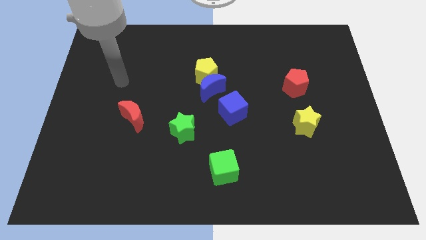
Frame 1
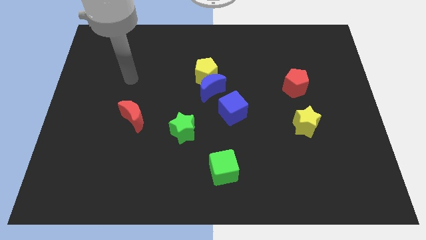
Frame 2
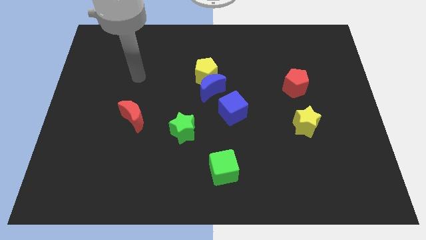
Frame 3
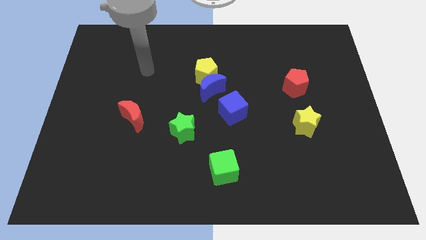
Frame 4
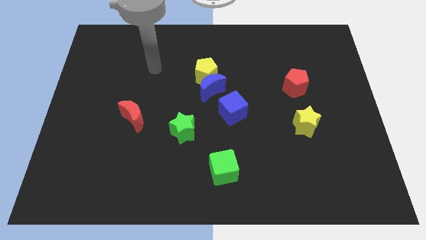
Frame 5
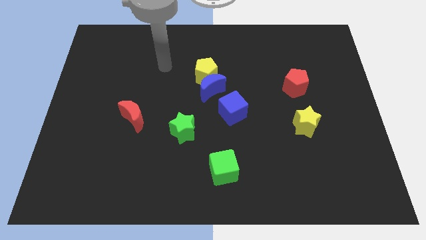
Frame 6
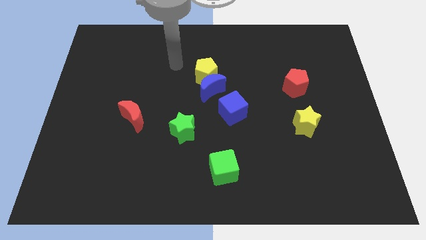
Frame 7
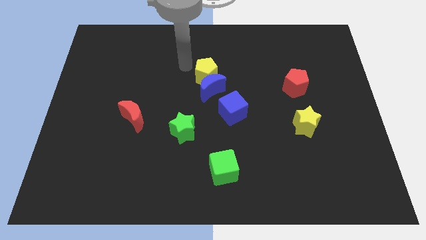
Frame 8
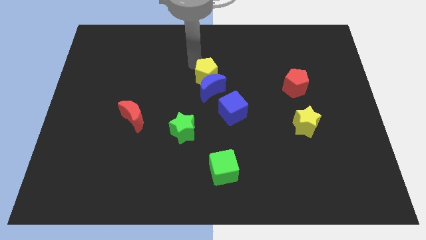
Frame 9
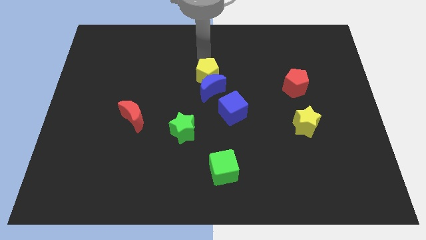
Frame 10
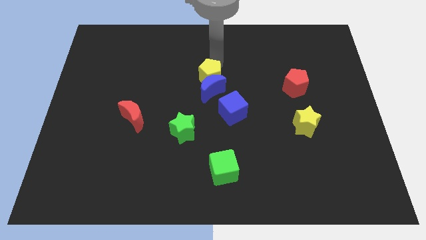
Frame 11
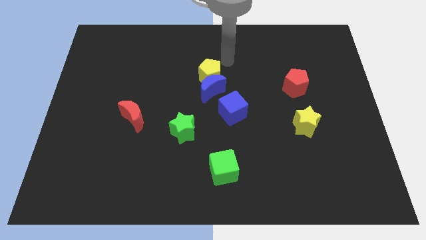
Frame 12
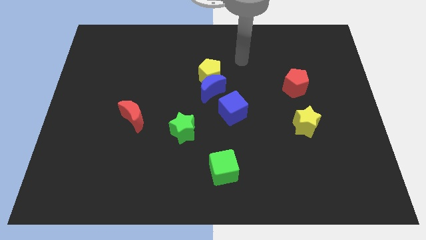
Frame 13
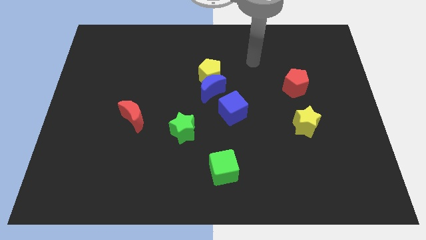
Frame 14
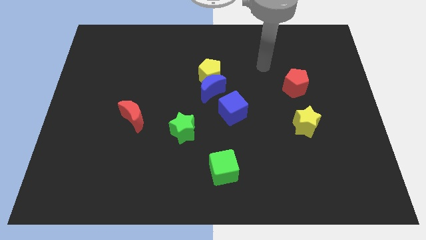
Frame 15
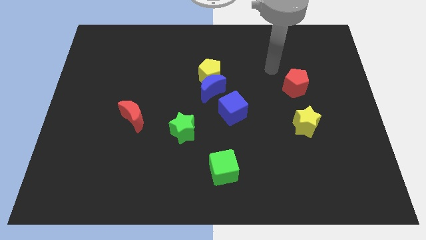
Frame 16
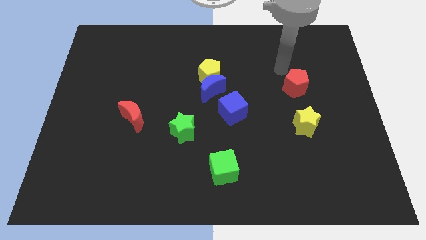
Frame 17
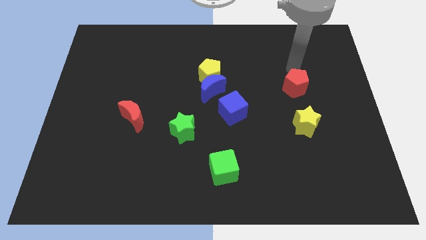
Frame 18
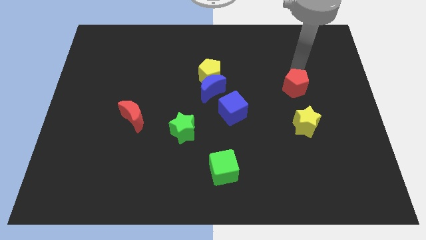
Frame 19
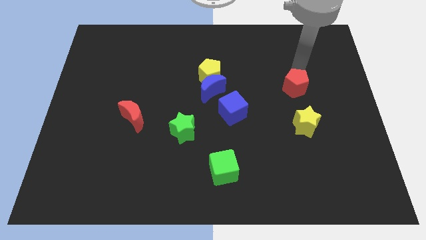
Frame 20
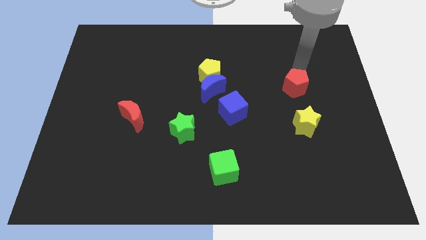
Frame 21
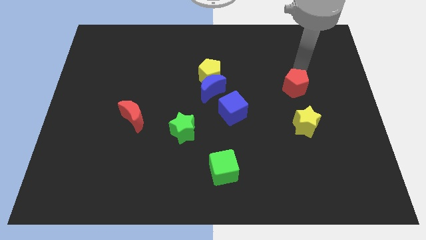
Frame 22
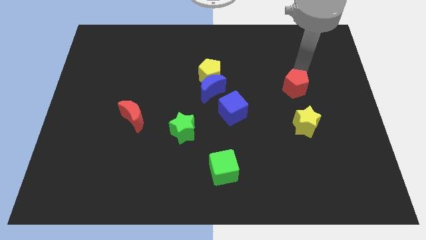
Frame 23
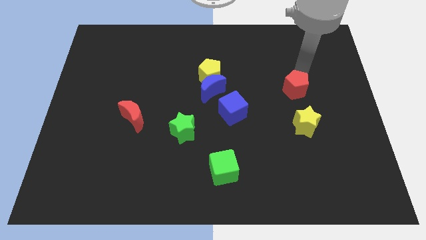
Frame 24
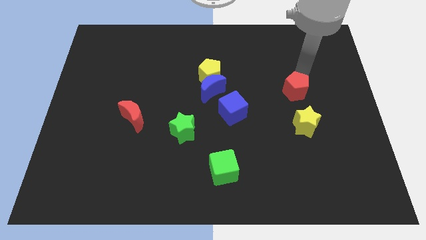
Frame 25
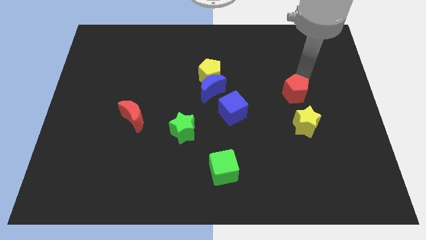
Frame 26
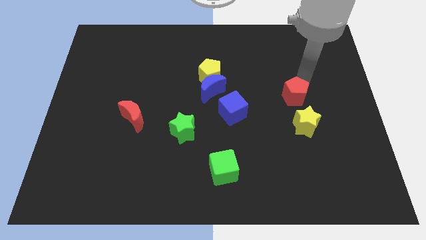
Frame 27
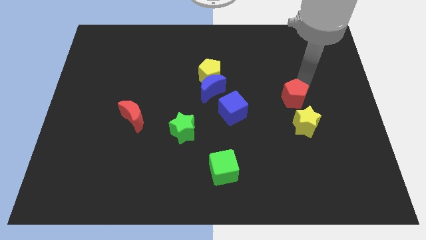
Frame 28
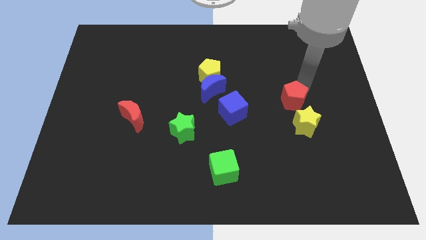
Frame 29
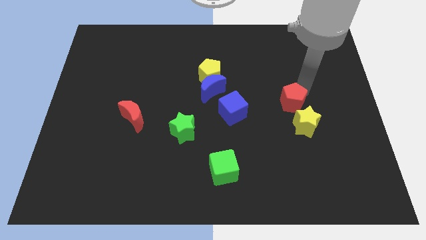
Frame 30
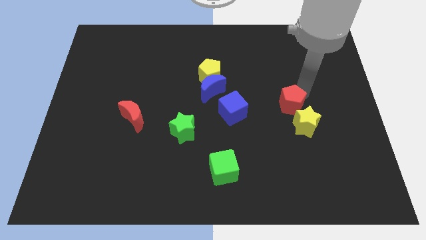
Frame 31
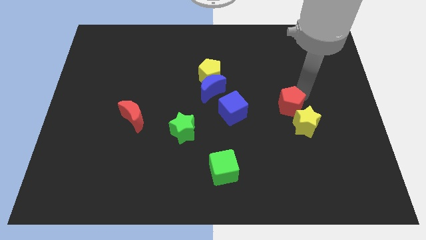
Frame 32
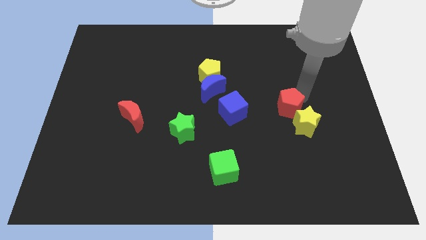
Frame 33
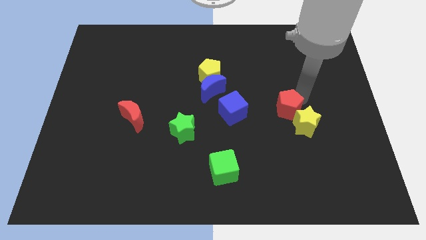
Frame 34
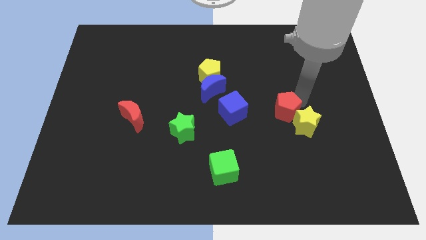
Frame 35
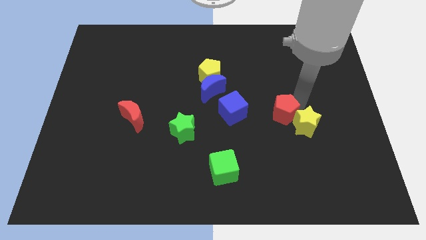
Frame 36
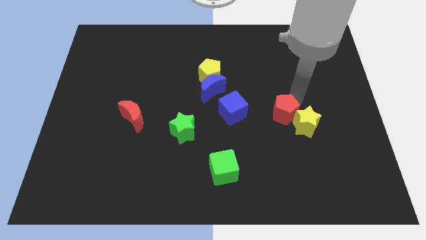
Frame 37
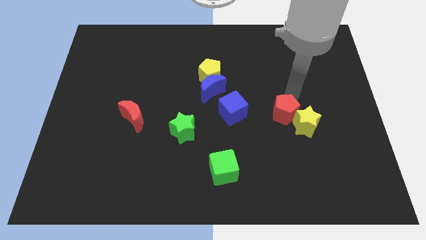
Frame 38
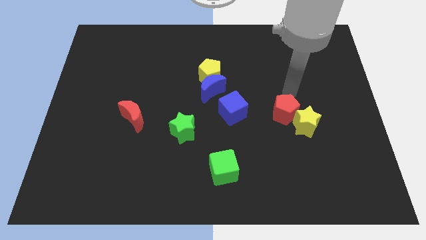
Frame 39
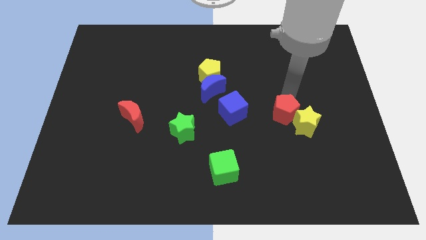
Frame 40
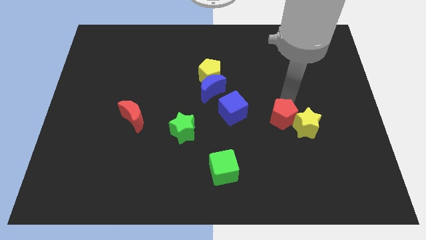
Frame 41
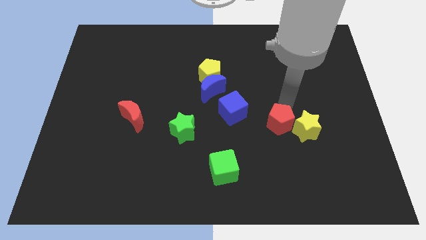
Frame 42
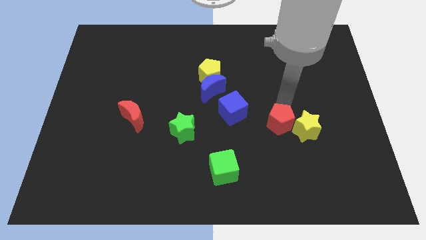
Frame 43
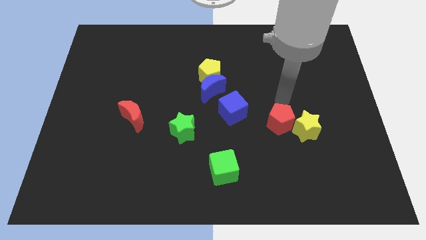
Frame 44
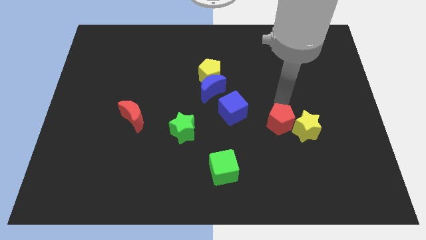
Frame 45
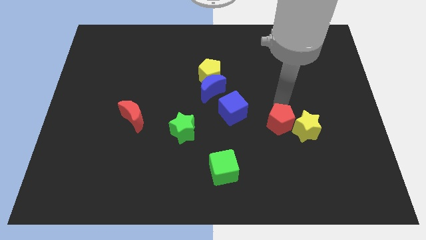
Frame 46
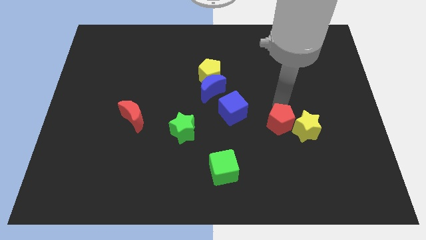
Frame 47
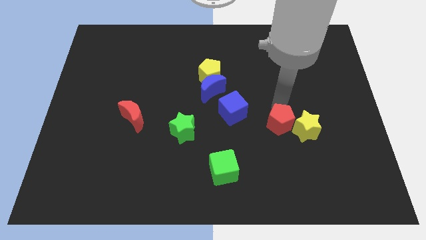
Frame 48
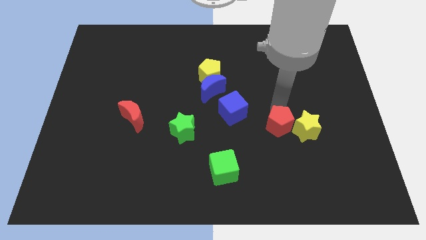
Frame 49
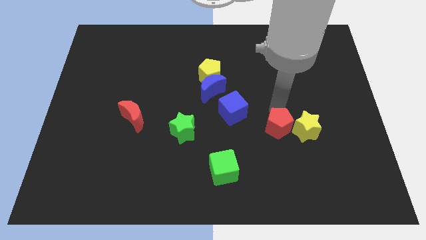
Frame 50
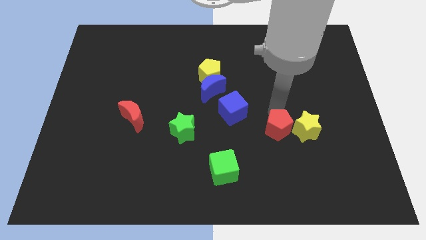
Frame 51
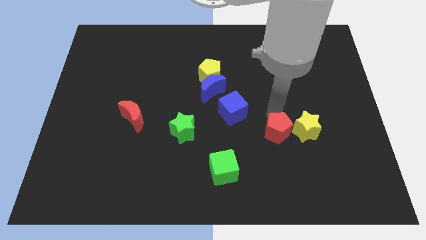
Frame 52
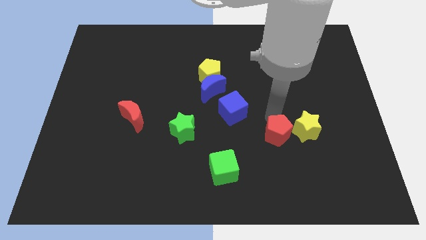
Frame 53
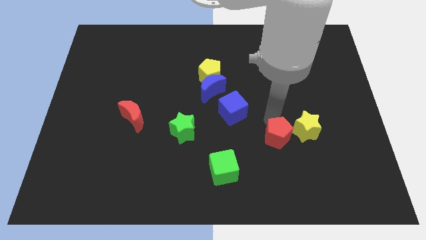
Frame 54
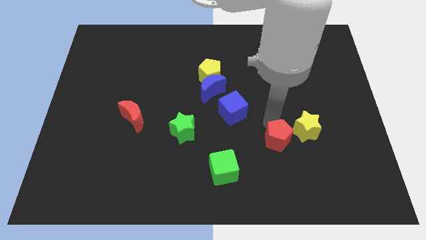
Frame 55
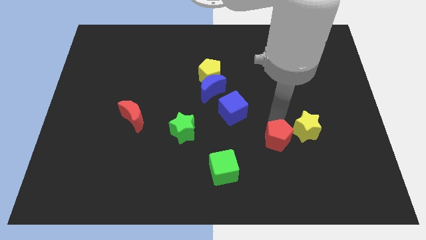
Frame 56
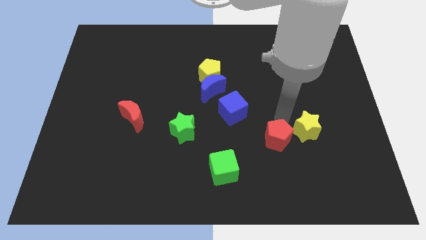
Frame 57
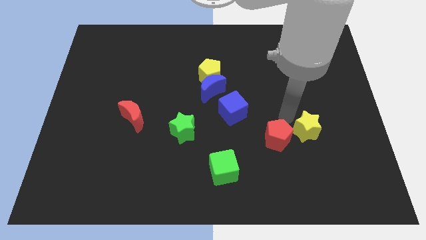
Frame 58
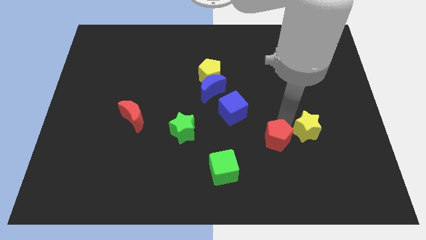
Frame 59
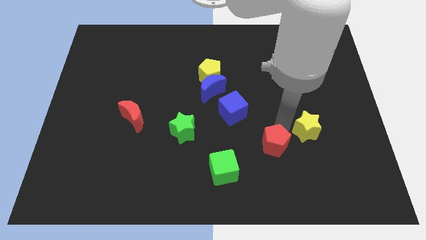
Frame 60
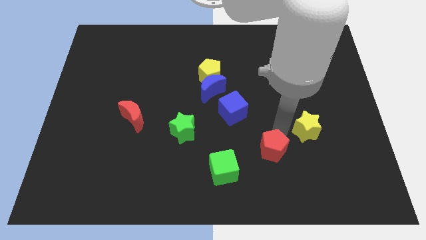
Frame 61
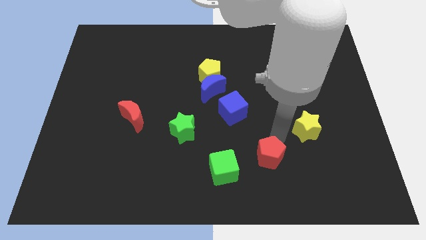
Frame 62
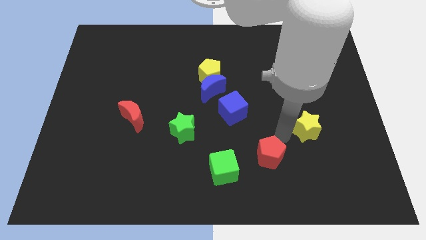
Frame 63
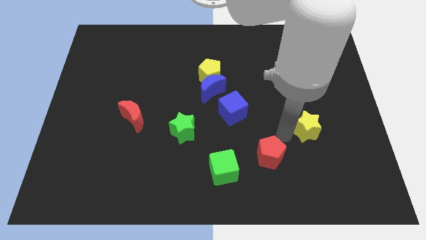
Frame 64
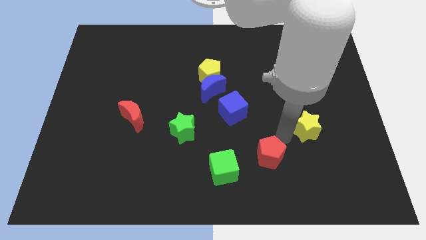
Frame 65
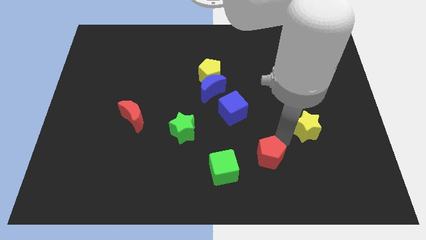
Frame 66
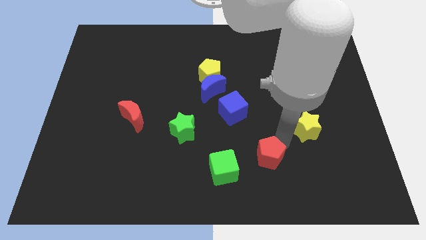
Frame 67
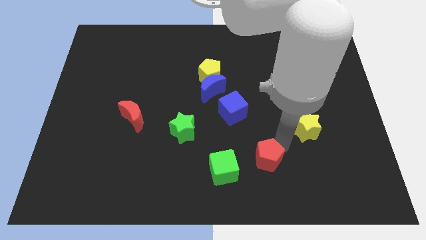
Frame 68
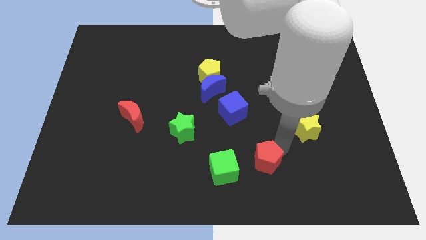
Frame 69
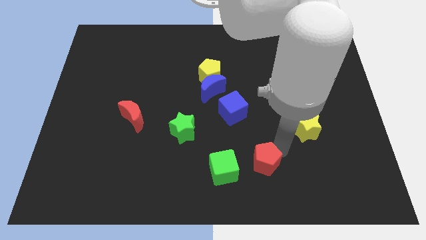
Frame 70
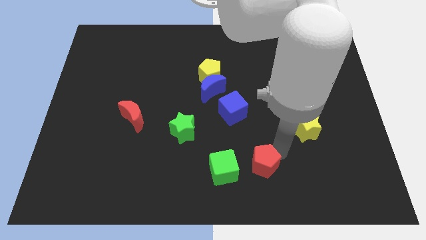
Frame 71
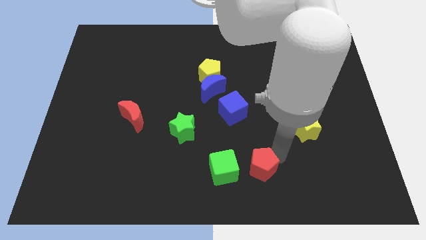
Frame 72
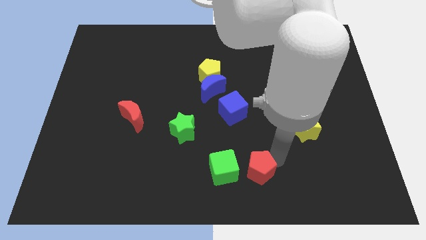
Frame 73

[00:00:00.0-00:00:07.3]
push the red pentagon to the bottom
